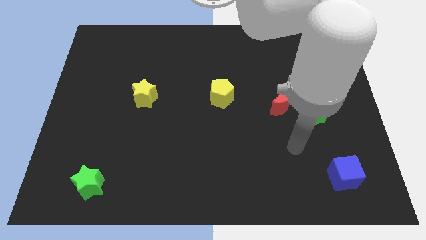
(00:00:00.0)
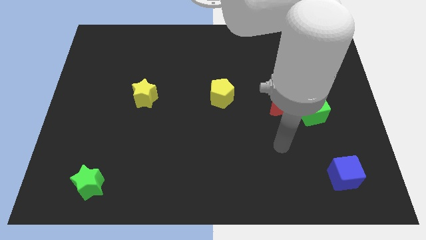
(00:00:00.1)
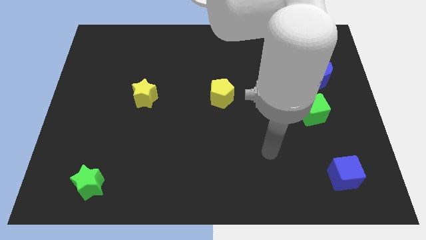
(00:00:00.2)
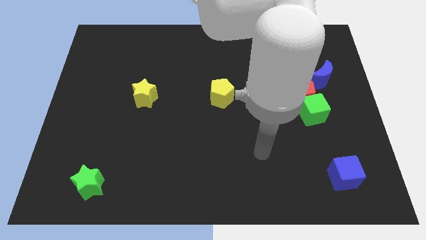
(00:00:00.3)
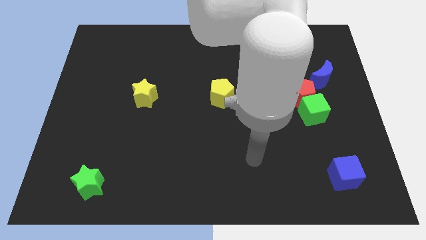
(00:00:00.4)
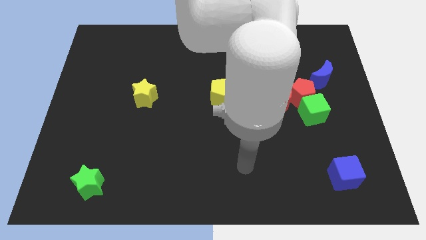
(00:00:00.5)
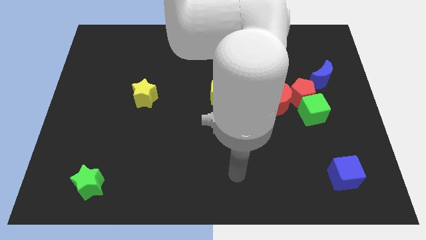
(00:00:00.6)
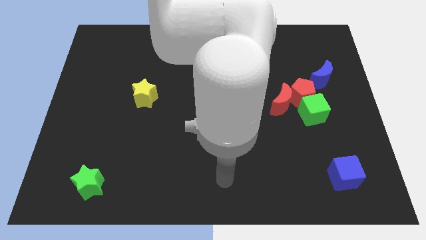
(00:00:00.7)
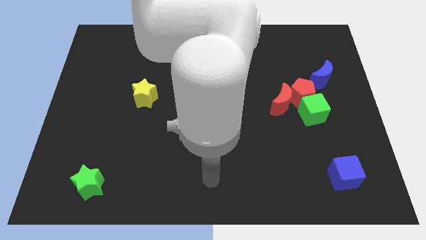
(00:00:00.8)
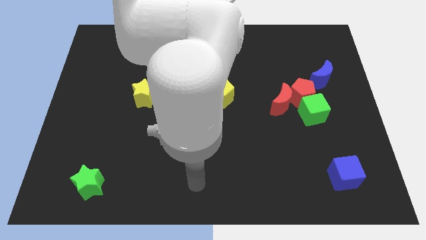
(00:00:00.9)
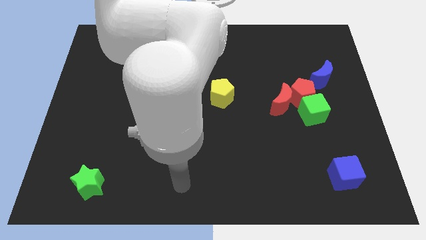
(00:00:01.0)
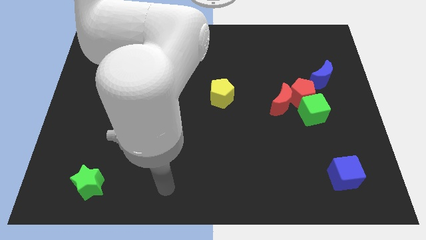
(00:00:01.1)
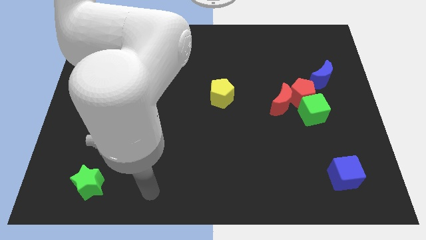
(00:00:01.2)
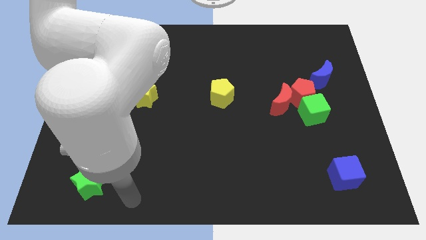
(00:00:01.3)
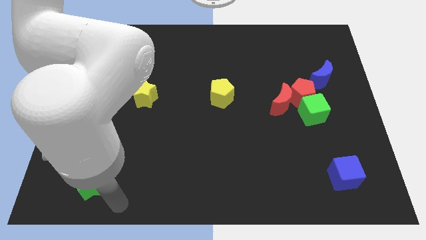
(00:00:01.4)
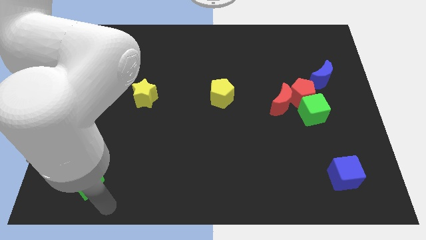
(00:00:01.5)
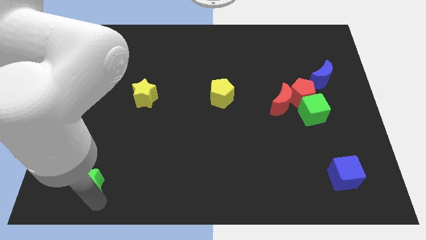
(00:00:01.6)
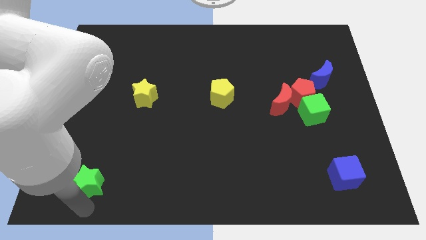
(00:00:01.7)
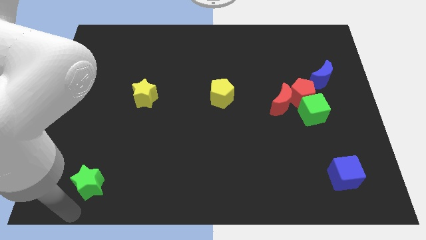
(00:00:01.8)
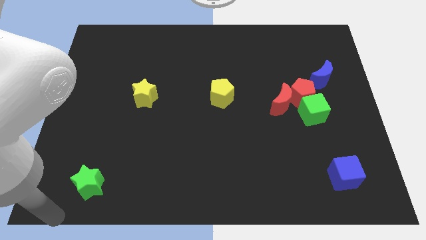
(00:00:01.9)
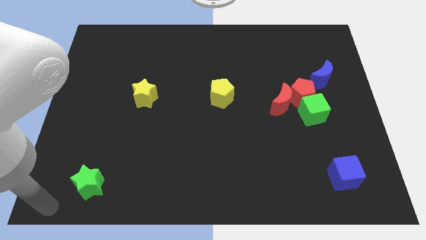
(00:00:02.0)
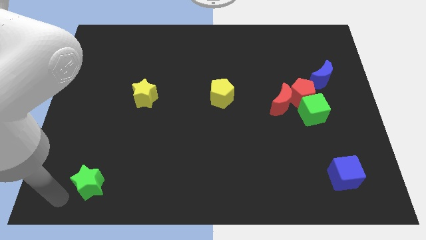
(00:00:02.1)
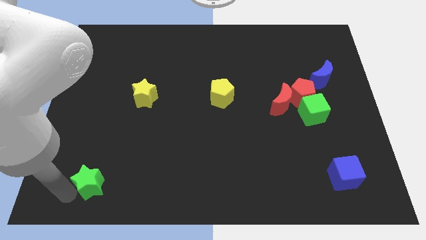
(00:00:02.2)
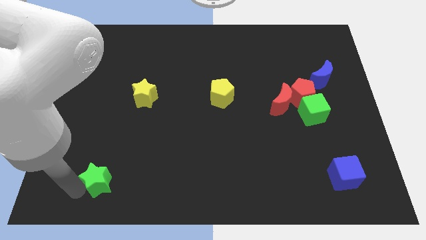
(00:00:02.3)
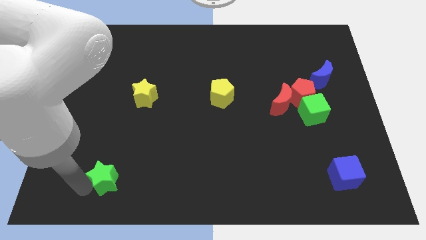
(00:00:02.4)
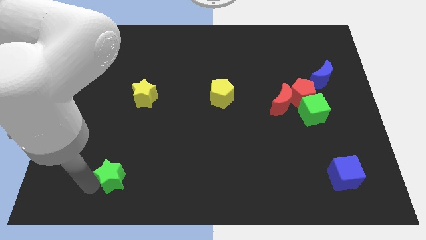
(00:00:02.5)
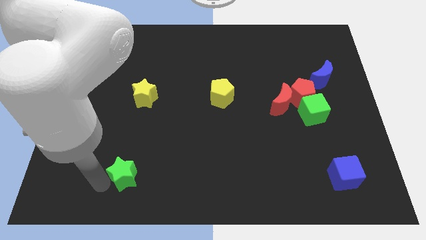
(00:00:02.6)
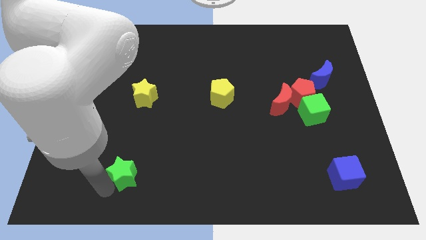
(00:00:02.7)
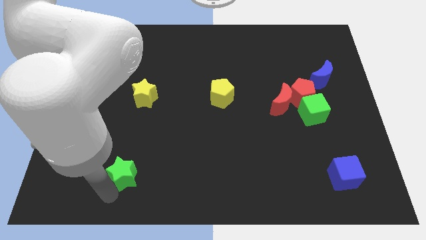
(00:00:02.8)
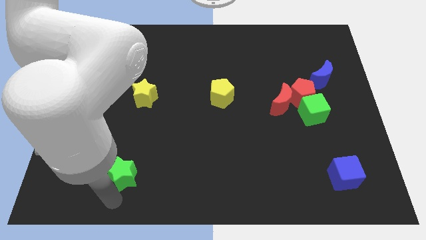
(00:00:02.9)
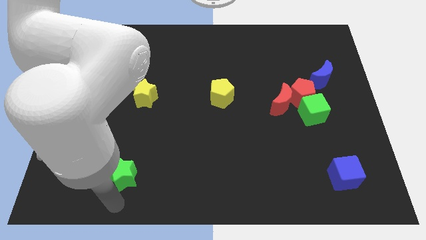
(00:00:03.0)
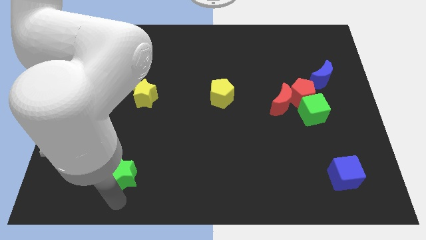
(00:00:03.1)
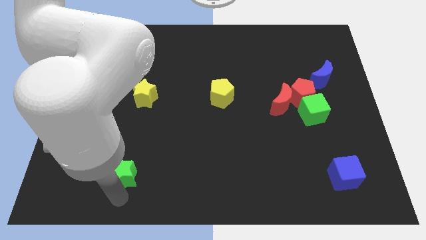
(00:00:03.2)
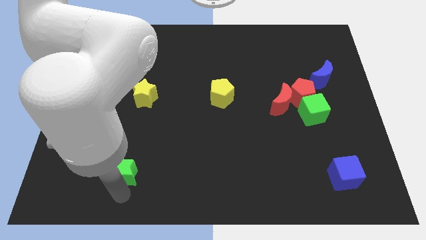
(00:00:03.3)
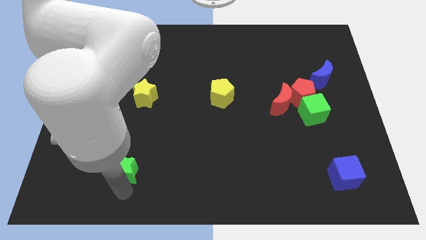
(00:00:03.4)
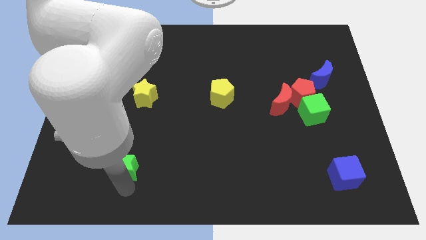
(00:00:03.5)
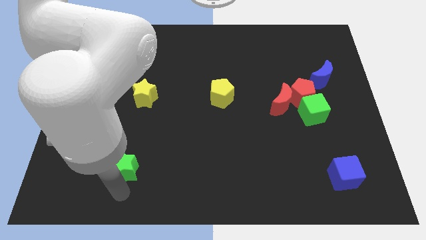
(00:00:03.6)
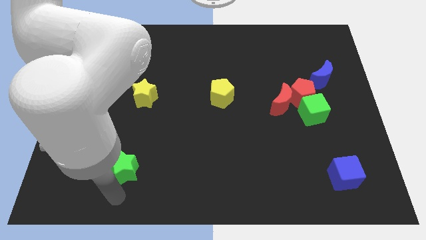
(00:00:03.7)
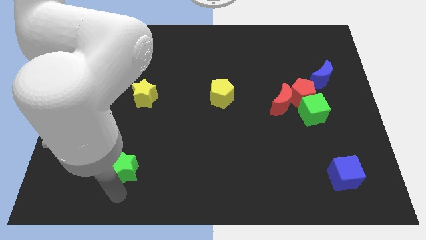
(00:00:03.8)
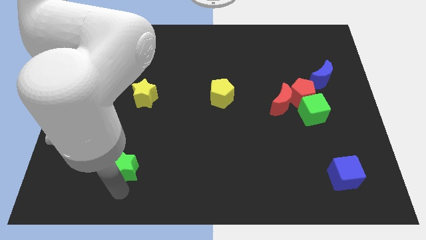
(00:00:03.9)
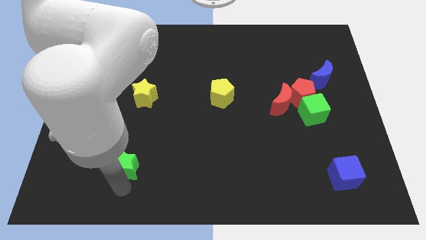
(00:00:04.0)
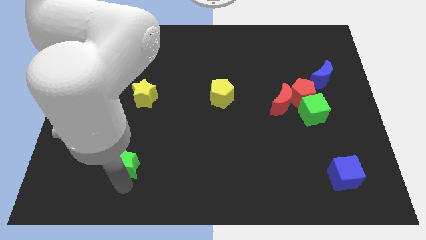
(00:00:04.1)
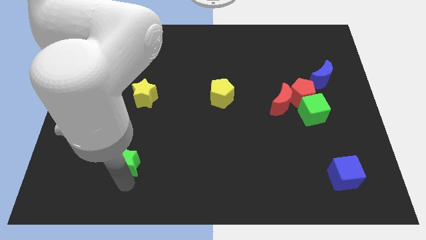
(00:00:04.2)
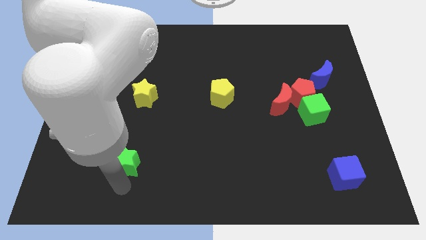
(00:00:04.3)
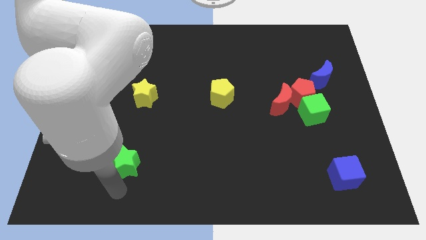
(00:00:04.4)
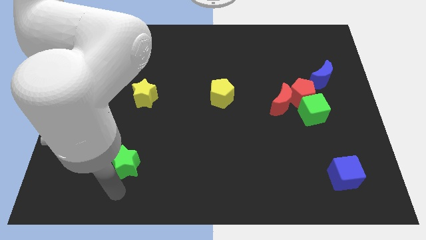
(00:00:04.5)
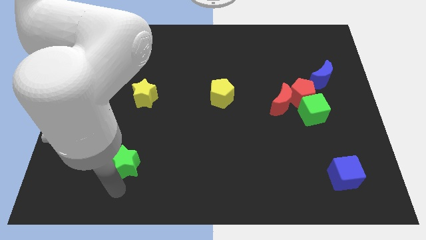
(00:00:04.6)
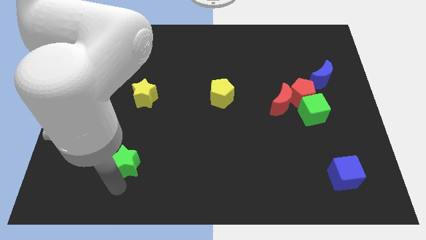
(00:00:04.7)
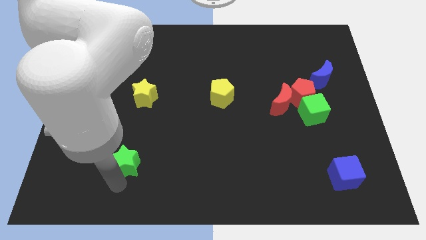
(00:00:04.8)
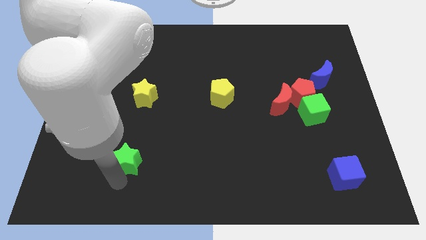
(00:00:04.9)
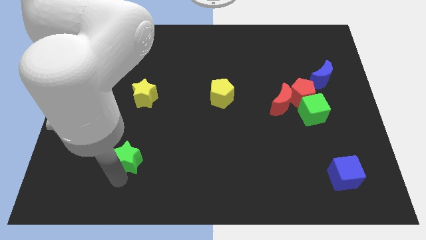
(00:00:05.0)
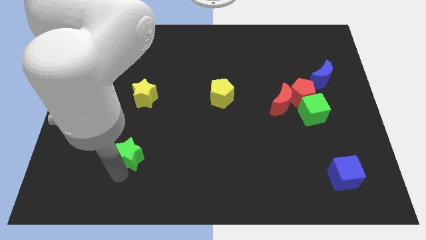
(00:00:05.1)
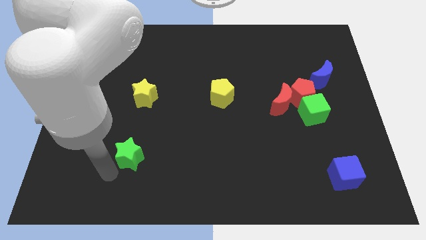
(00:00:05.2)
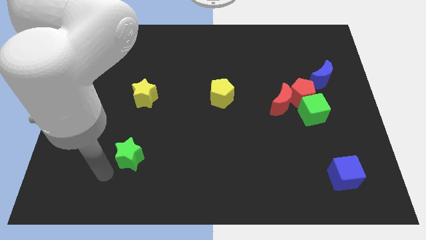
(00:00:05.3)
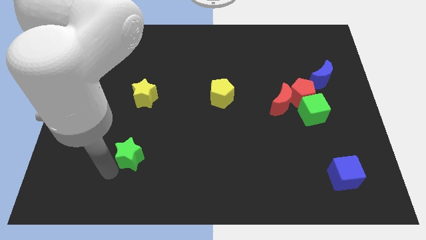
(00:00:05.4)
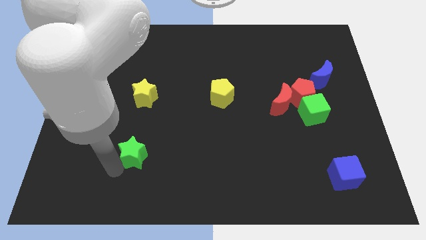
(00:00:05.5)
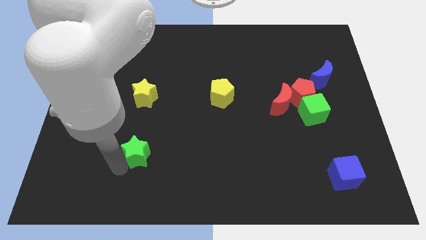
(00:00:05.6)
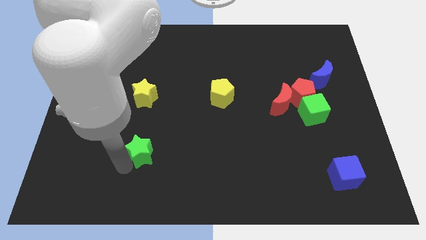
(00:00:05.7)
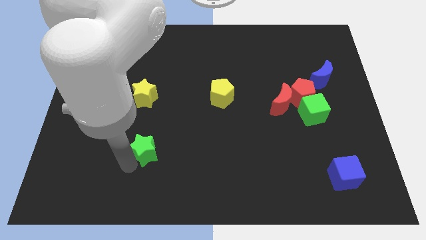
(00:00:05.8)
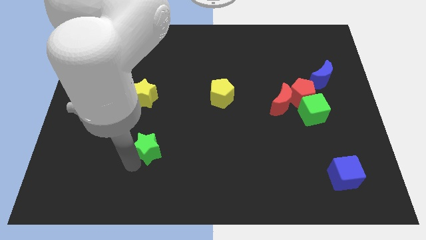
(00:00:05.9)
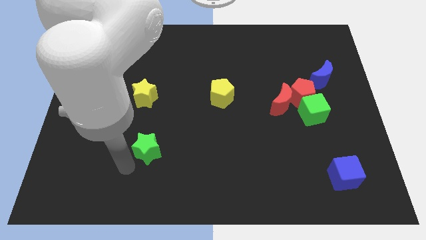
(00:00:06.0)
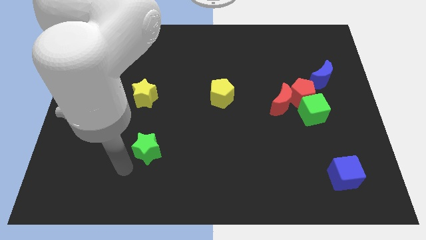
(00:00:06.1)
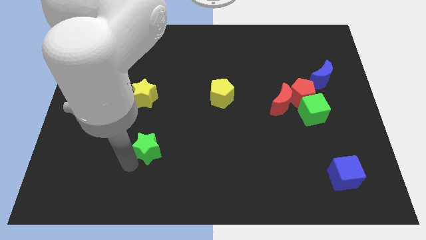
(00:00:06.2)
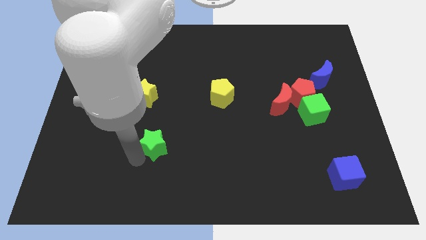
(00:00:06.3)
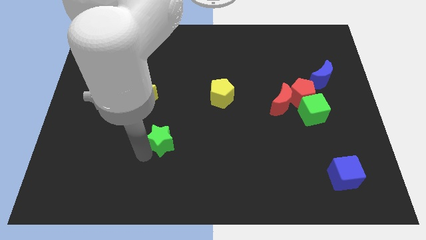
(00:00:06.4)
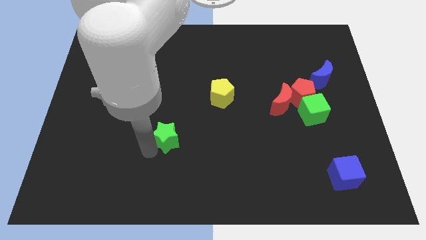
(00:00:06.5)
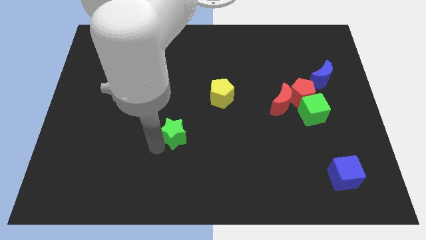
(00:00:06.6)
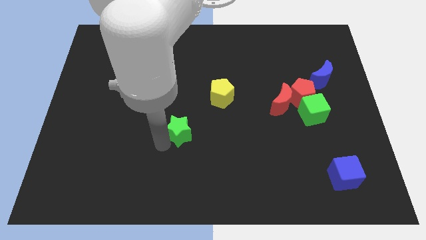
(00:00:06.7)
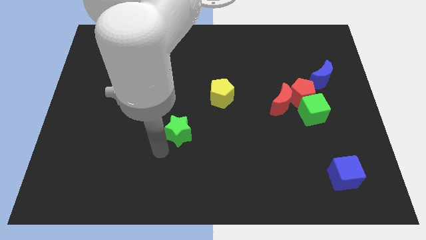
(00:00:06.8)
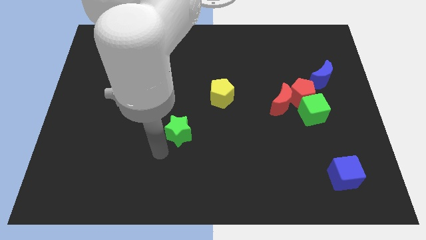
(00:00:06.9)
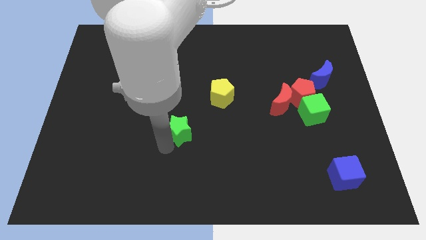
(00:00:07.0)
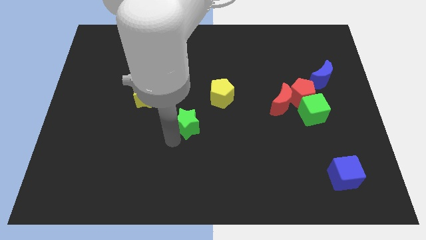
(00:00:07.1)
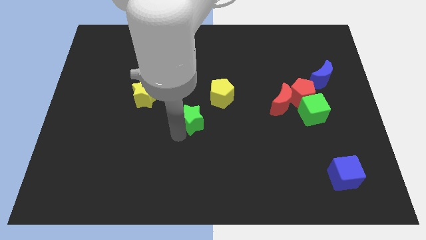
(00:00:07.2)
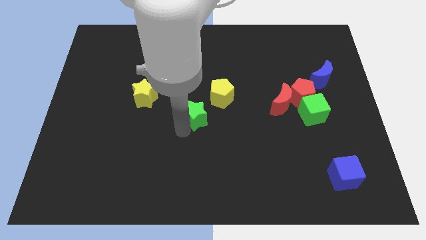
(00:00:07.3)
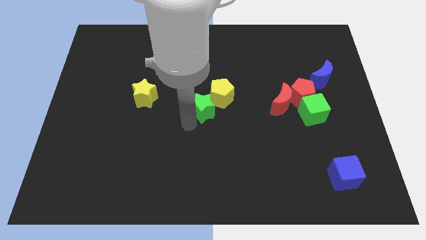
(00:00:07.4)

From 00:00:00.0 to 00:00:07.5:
move the green star towards the yellow pentagon
